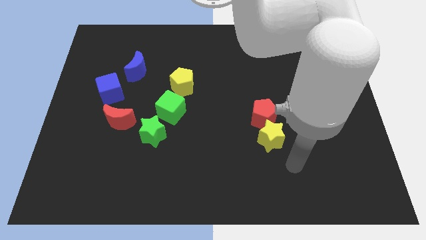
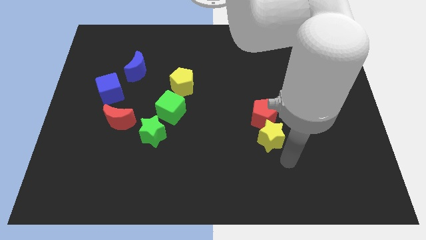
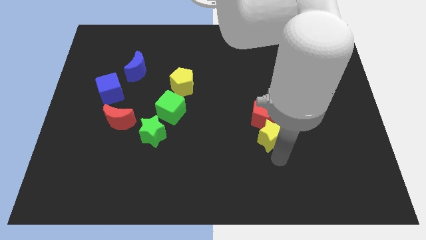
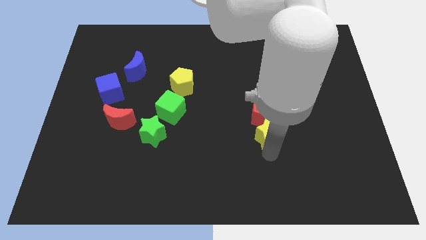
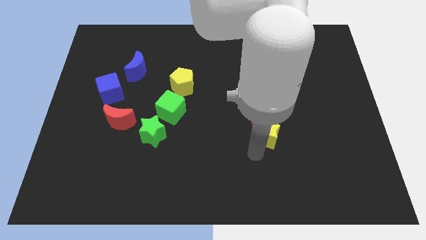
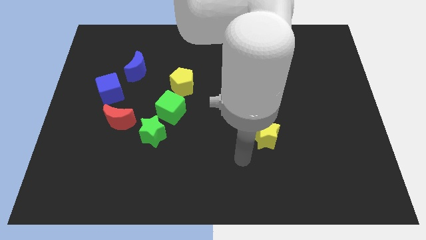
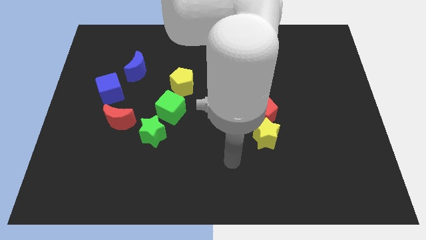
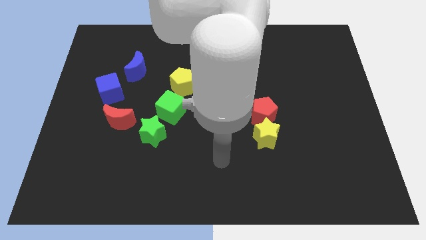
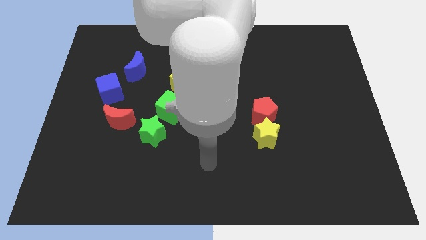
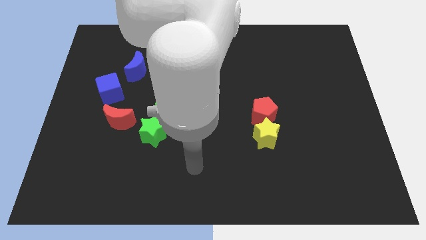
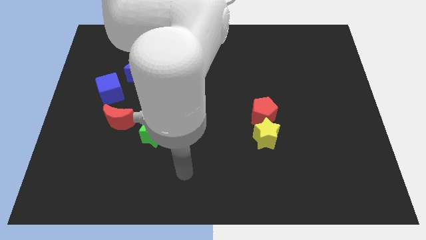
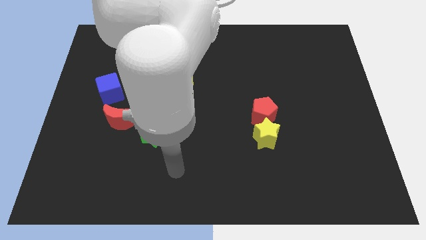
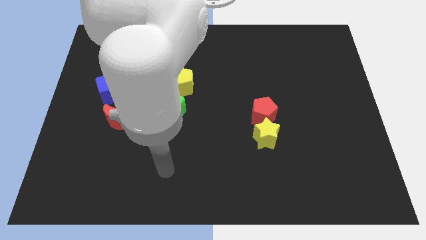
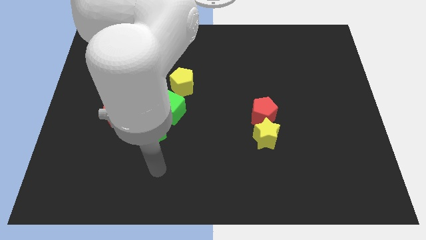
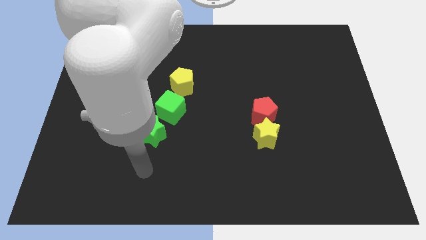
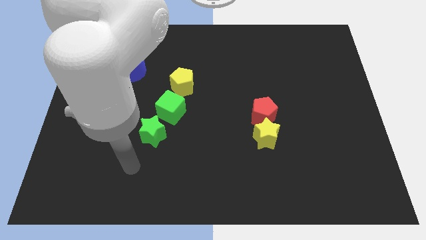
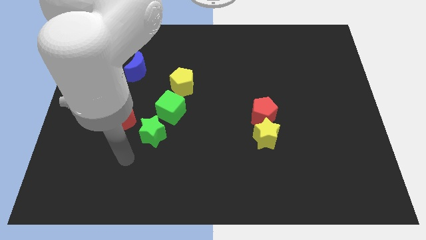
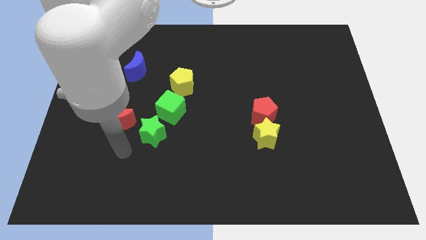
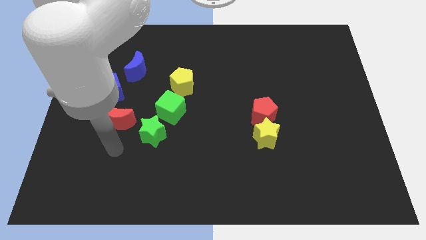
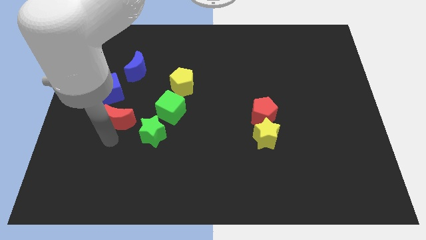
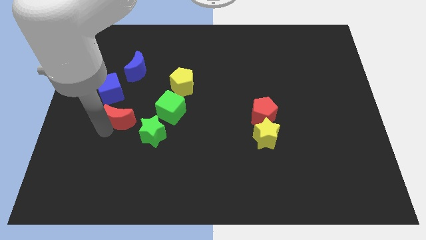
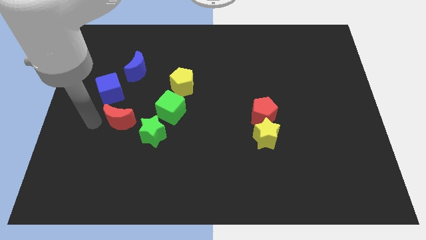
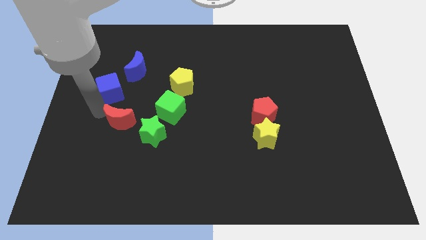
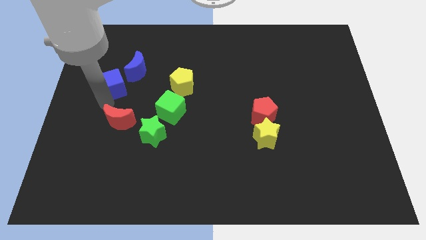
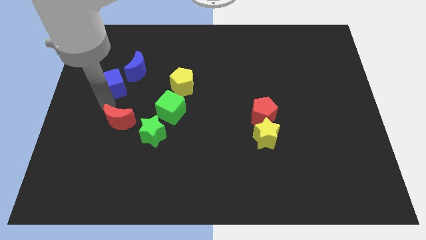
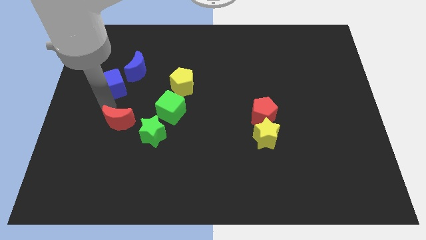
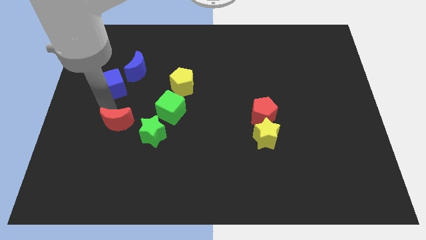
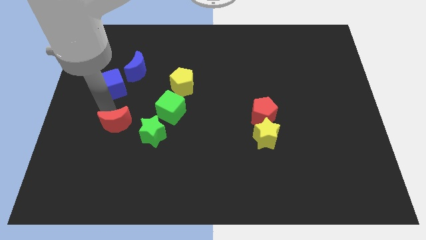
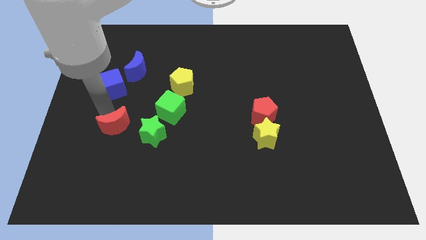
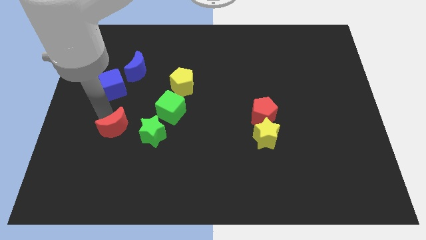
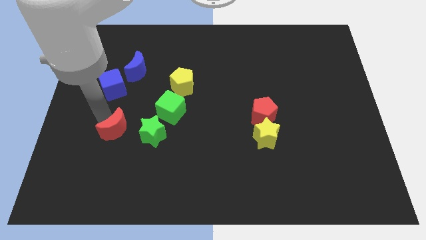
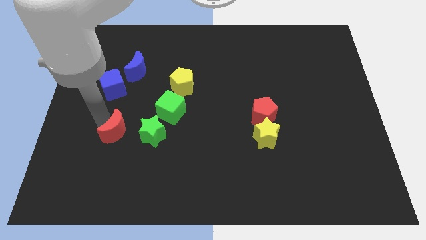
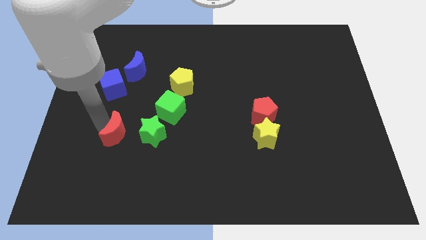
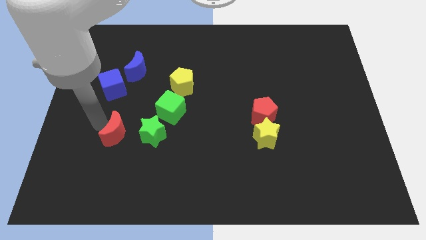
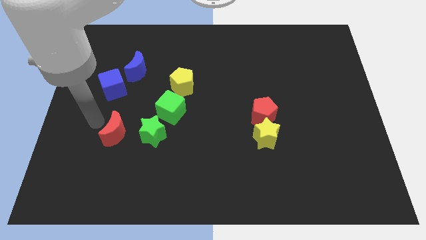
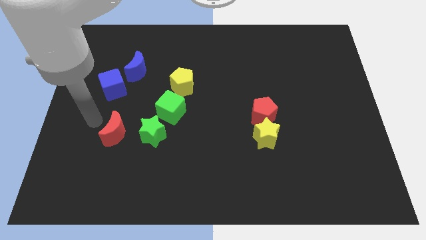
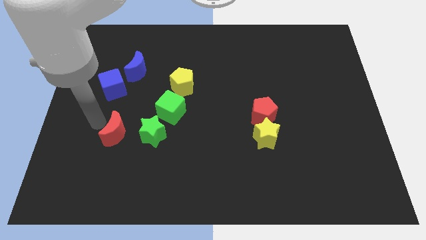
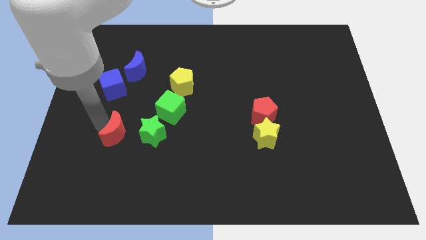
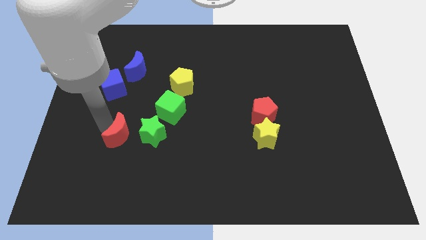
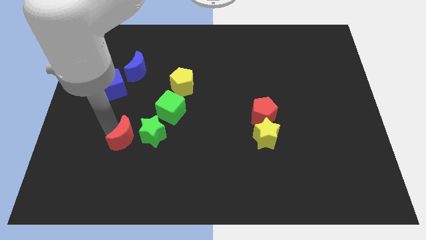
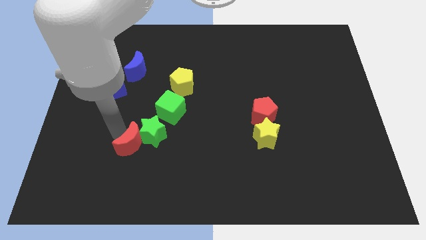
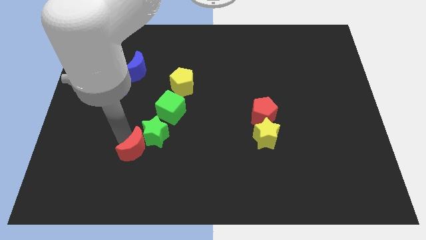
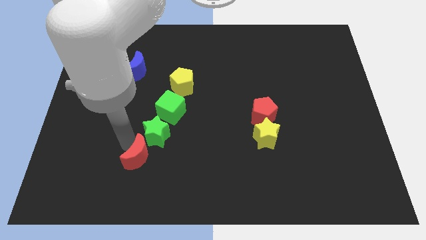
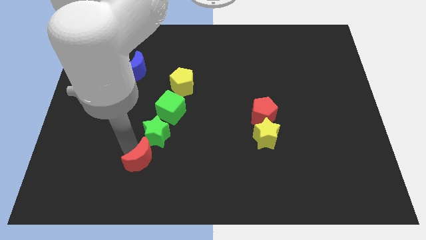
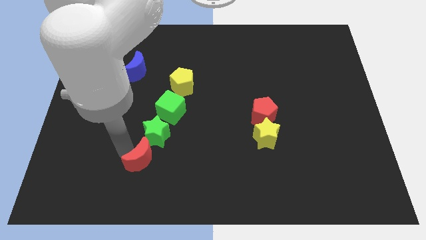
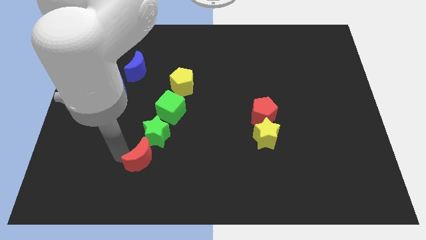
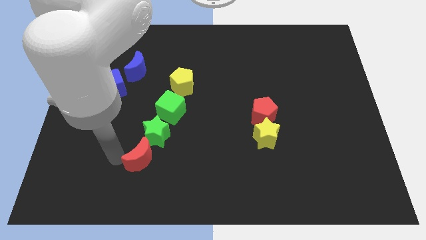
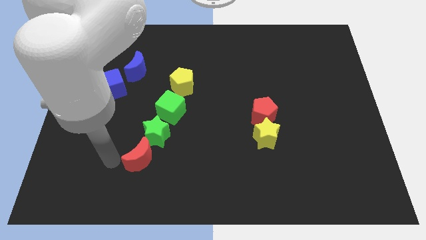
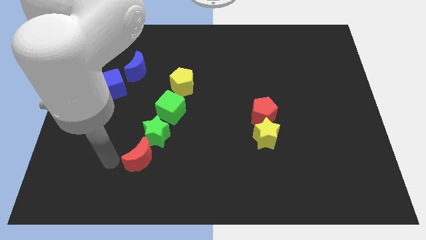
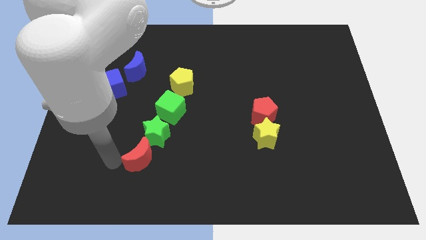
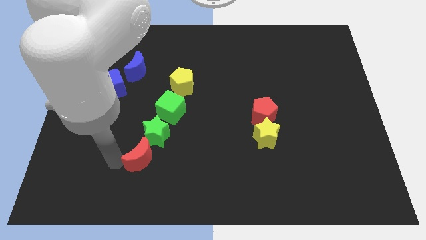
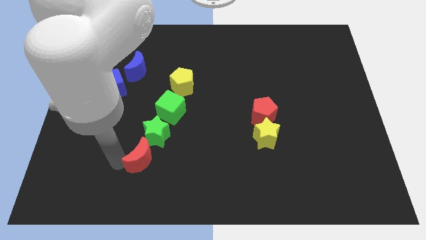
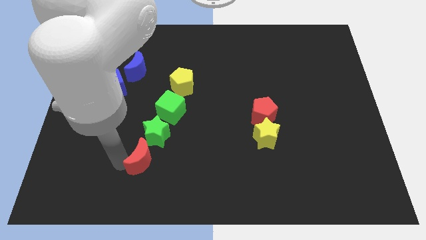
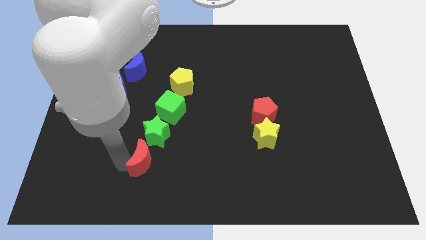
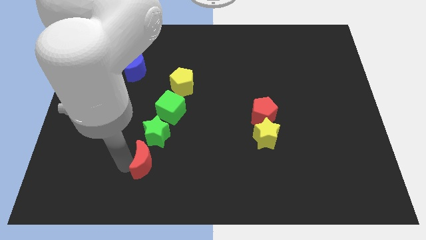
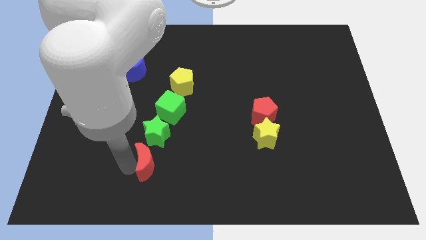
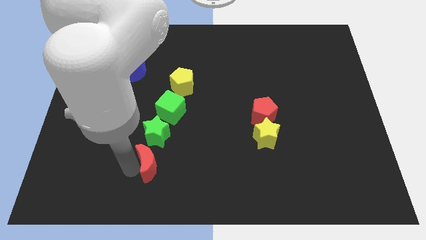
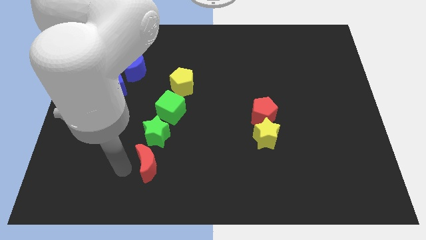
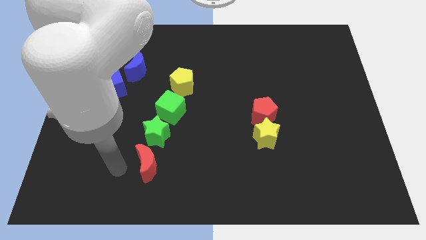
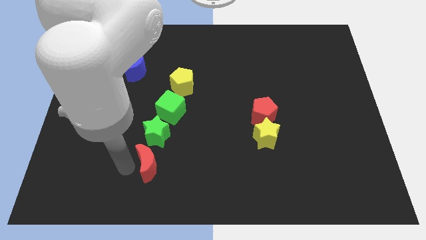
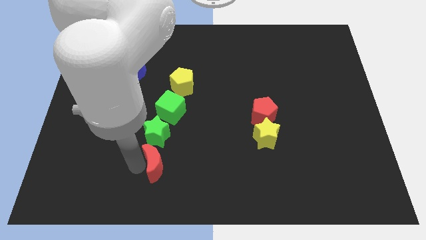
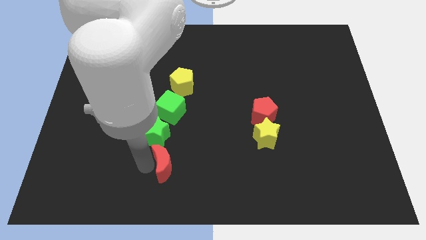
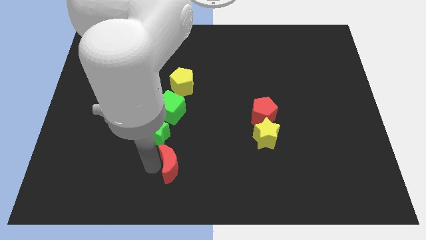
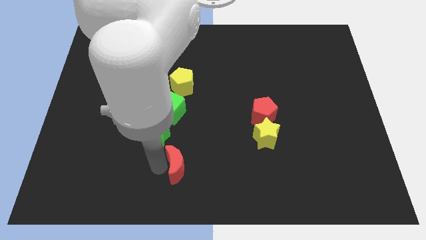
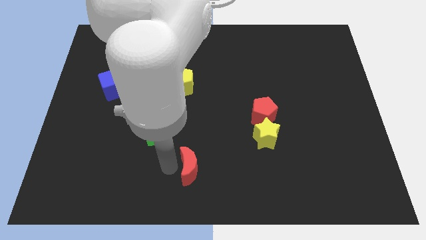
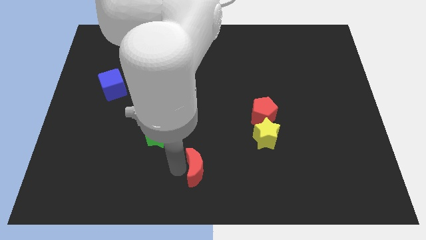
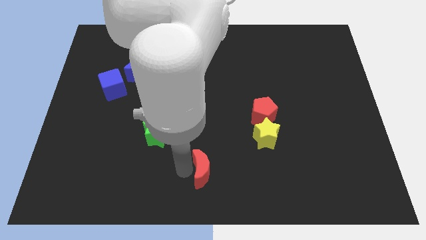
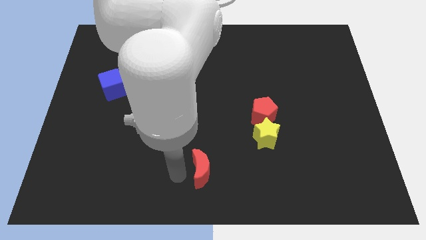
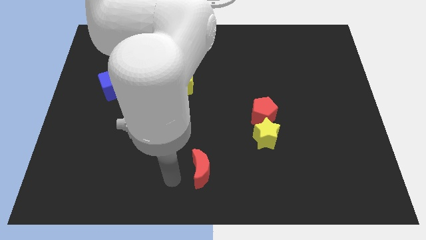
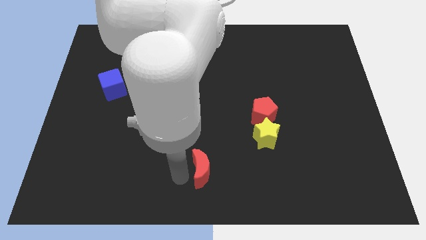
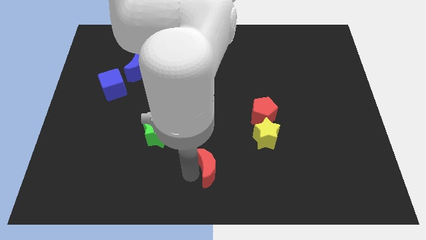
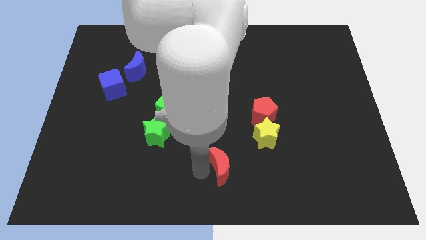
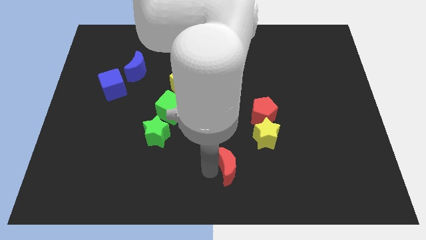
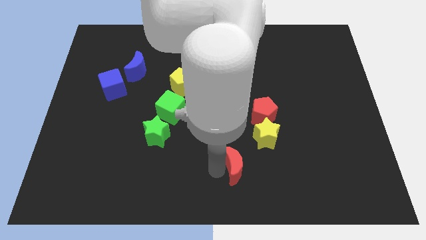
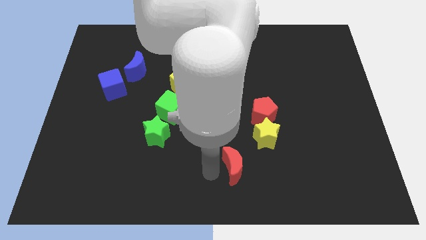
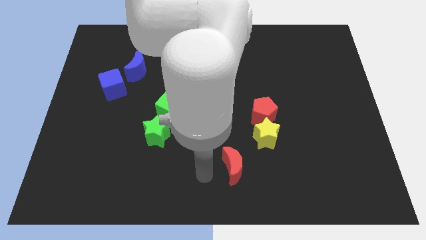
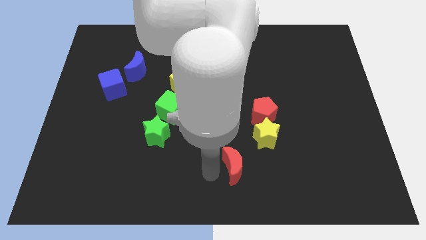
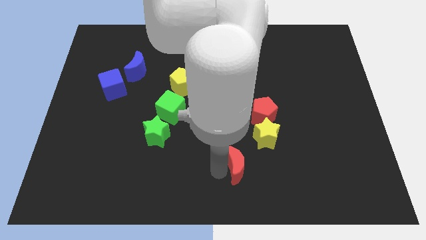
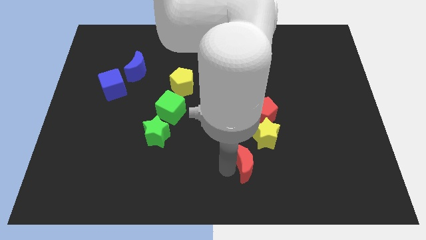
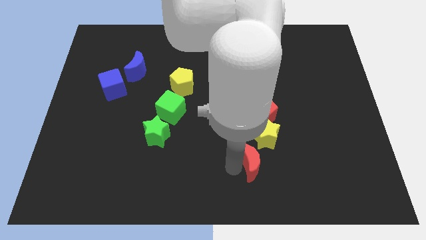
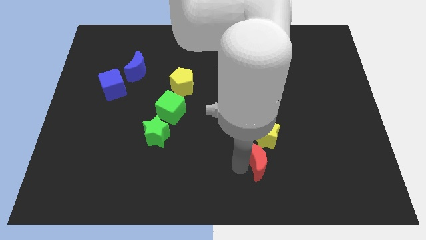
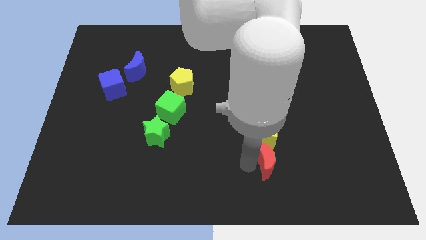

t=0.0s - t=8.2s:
push the red moon to the bottom right side of the yellow star
